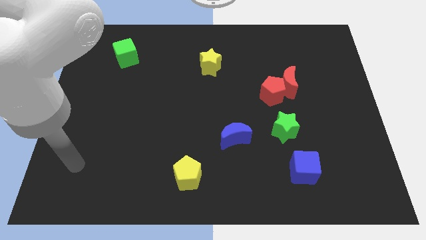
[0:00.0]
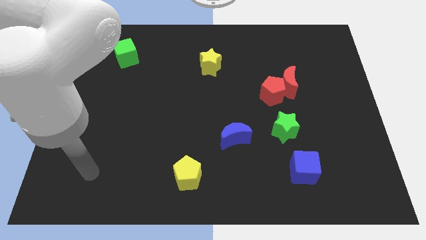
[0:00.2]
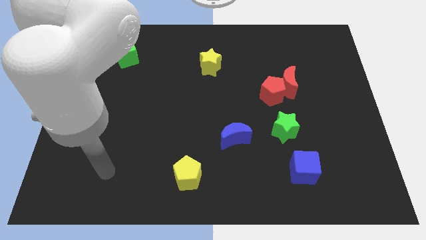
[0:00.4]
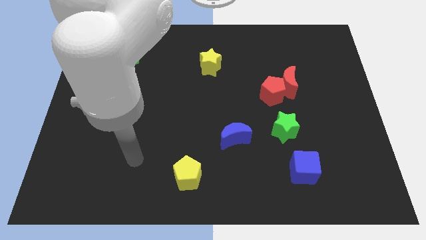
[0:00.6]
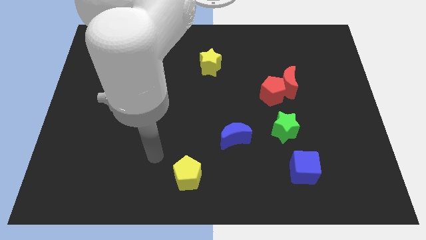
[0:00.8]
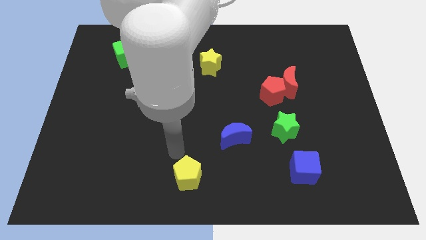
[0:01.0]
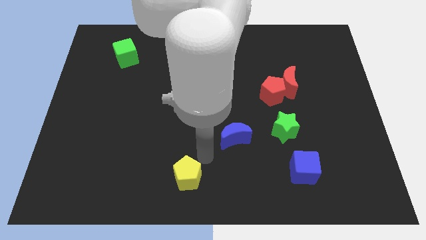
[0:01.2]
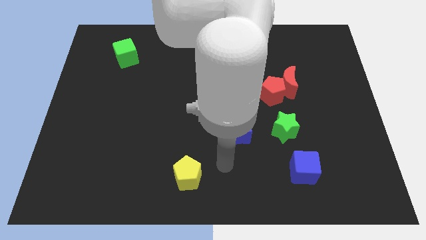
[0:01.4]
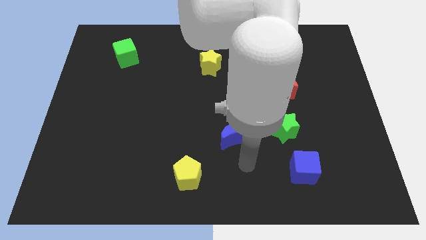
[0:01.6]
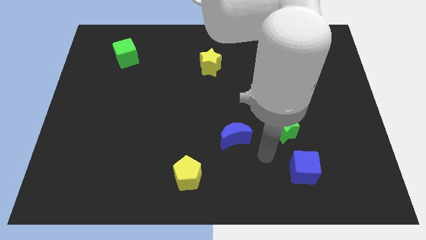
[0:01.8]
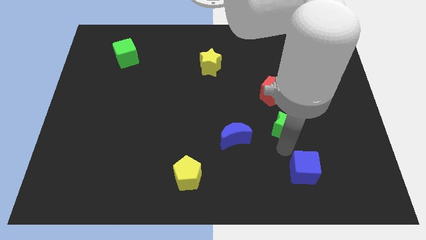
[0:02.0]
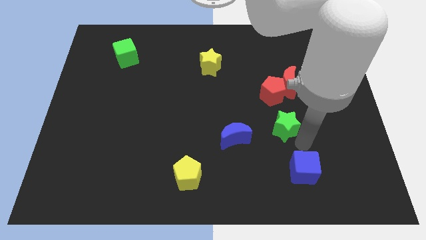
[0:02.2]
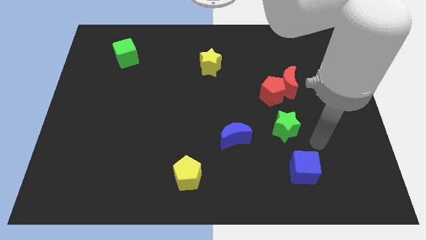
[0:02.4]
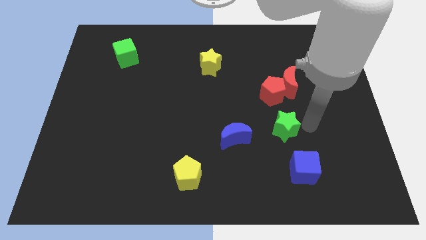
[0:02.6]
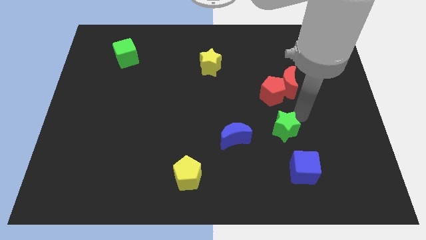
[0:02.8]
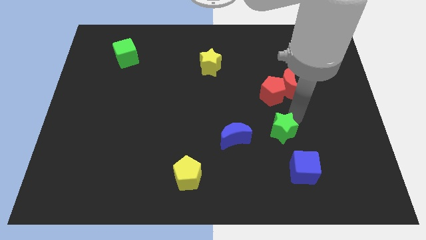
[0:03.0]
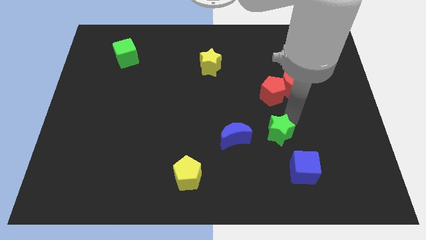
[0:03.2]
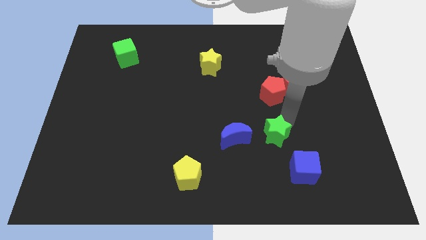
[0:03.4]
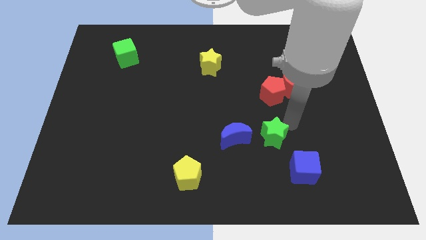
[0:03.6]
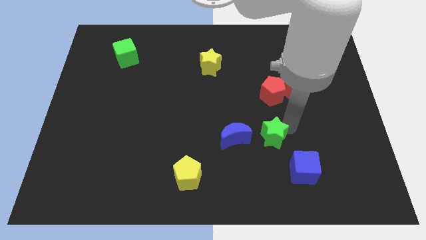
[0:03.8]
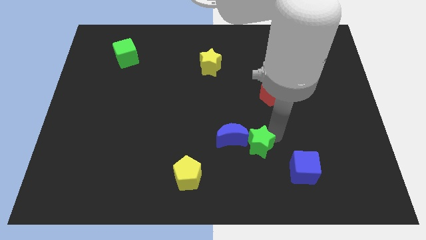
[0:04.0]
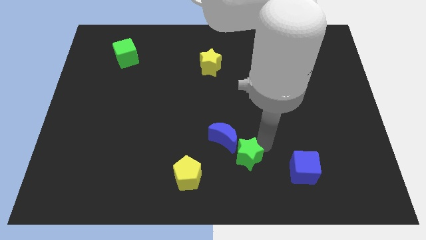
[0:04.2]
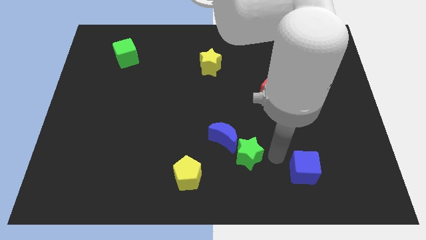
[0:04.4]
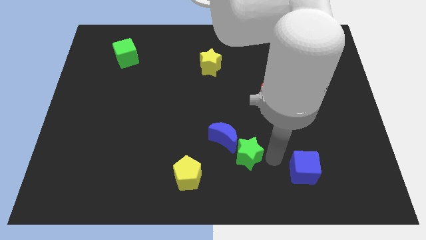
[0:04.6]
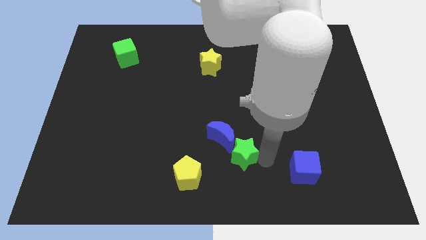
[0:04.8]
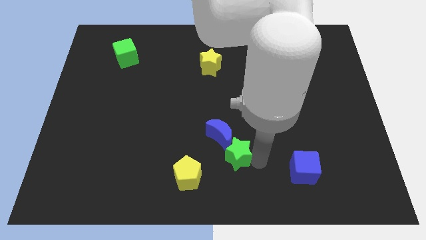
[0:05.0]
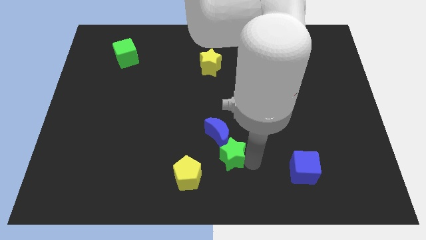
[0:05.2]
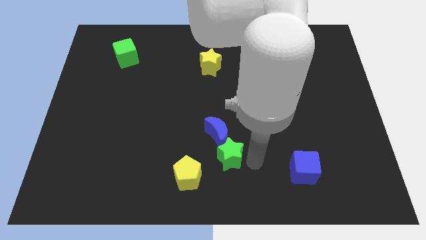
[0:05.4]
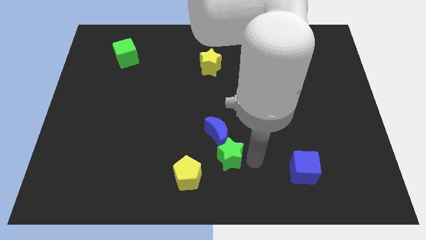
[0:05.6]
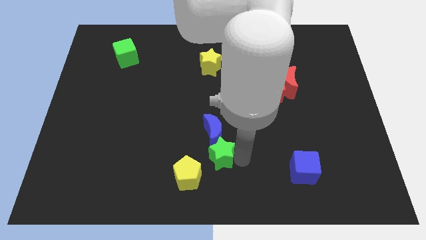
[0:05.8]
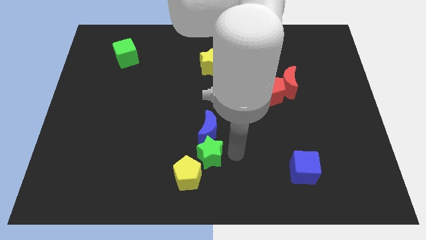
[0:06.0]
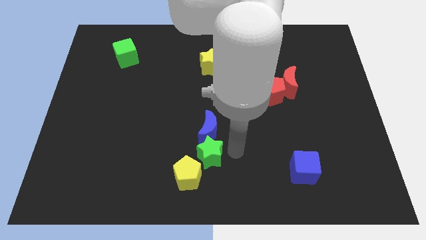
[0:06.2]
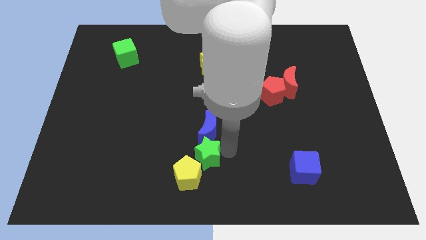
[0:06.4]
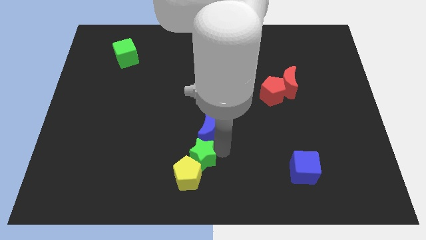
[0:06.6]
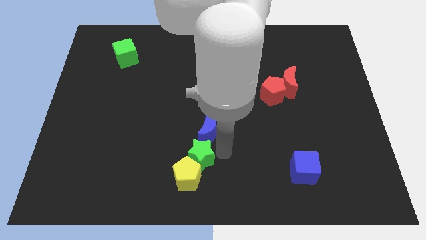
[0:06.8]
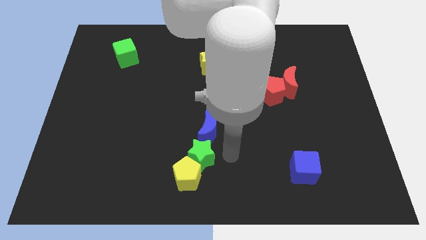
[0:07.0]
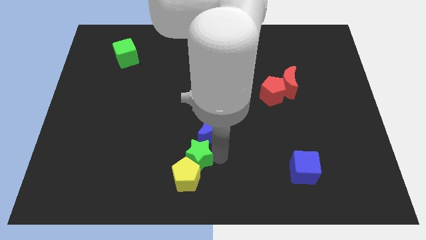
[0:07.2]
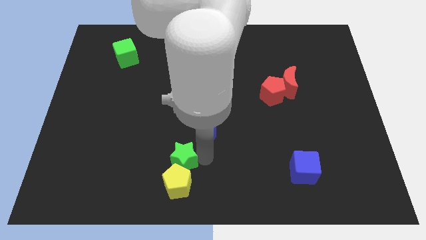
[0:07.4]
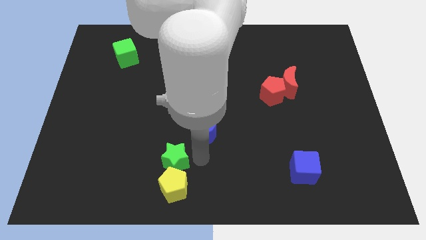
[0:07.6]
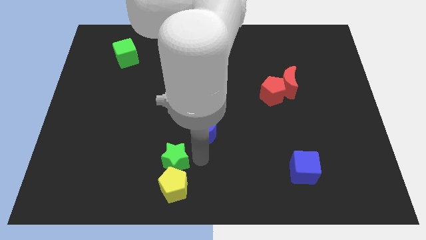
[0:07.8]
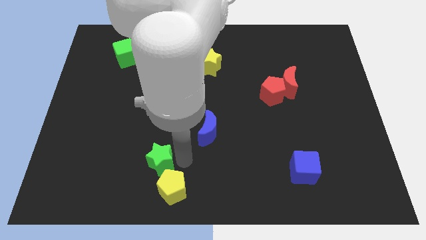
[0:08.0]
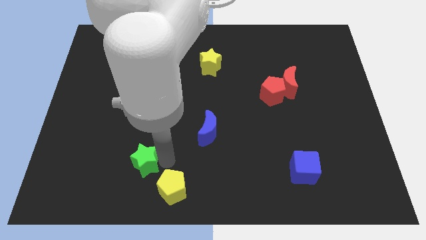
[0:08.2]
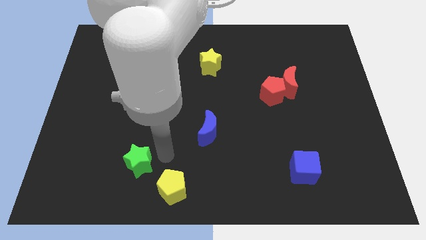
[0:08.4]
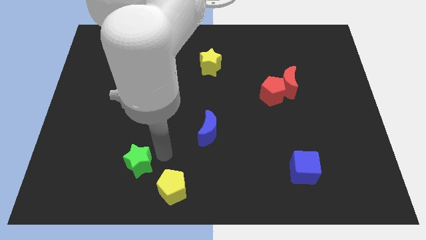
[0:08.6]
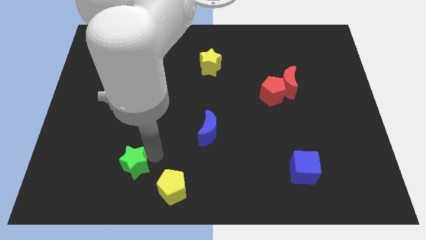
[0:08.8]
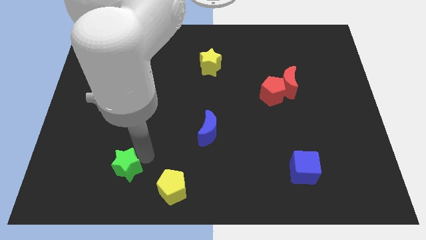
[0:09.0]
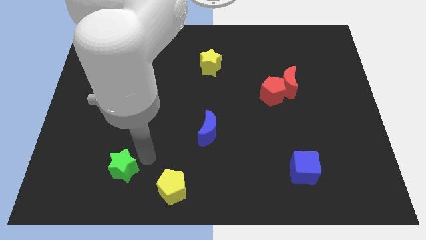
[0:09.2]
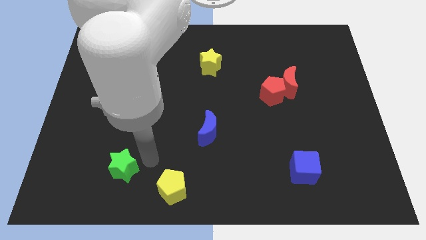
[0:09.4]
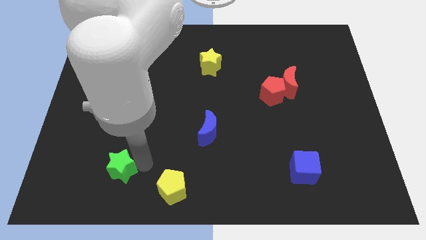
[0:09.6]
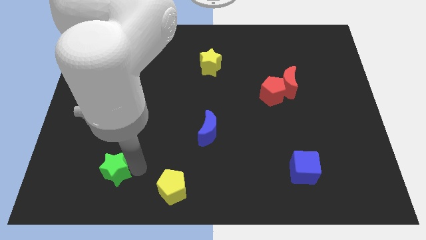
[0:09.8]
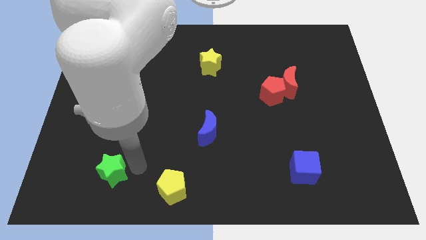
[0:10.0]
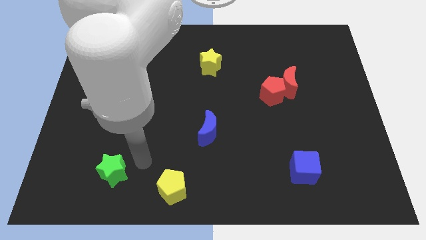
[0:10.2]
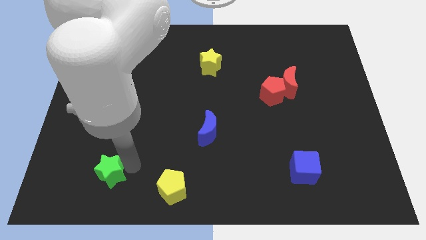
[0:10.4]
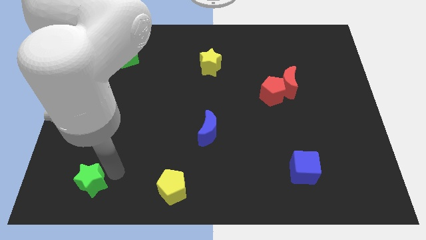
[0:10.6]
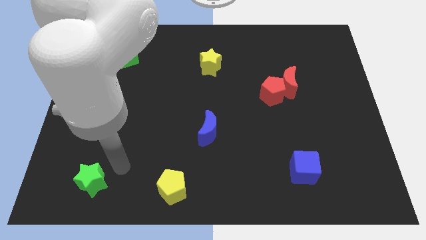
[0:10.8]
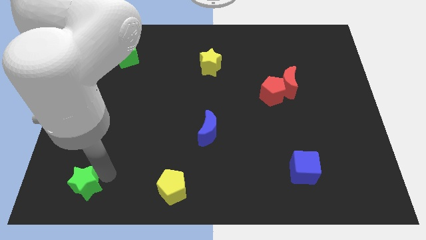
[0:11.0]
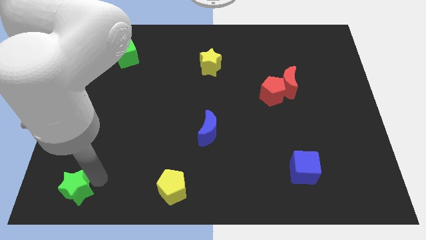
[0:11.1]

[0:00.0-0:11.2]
slide the green star to the bottom left of the board

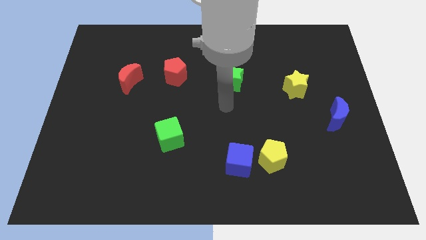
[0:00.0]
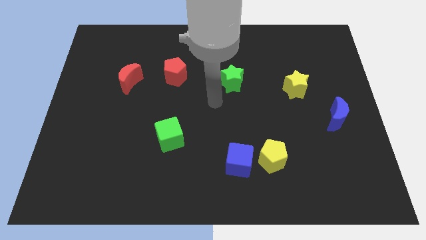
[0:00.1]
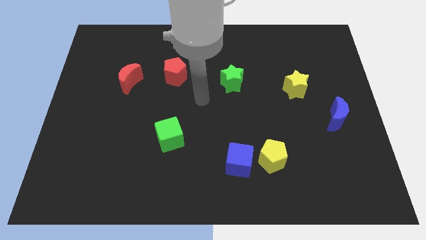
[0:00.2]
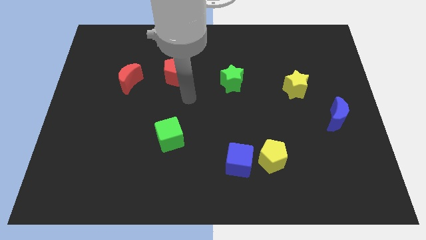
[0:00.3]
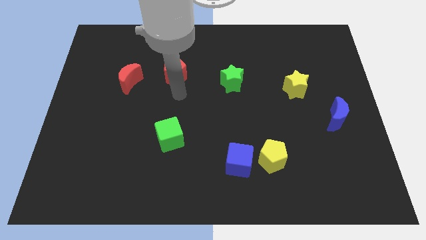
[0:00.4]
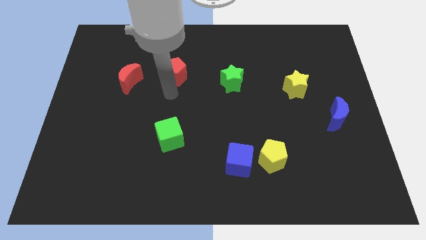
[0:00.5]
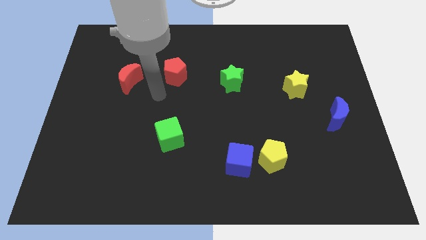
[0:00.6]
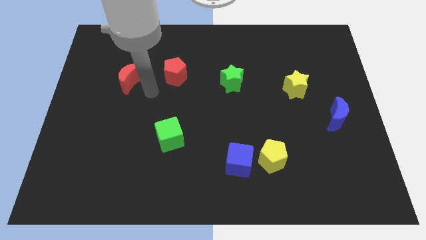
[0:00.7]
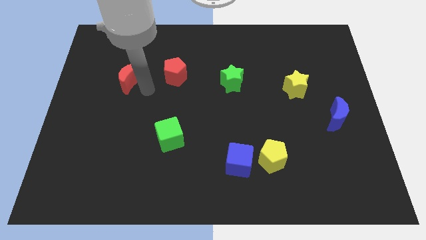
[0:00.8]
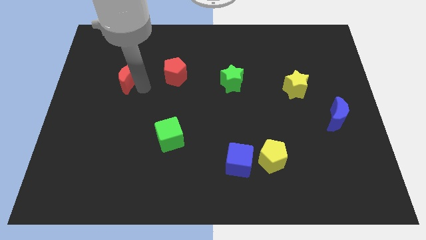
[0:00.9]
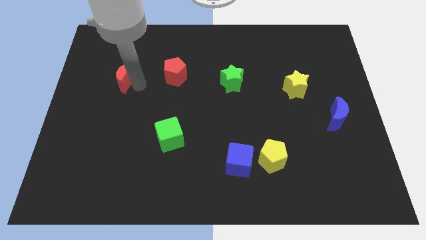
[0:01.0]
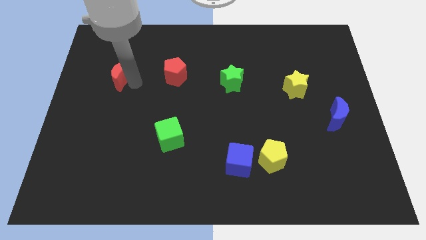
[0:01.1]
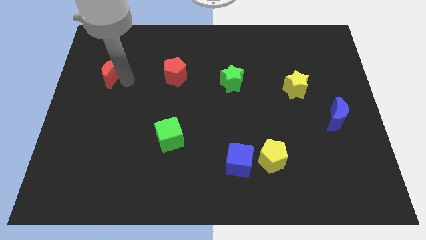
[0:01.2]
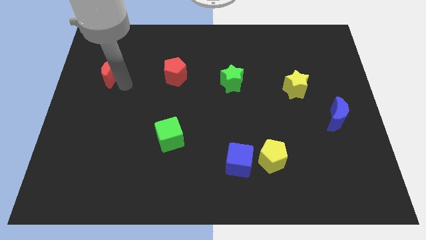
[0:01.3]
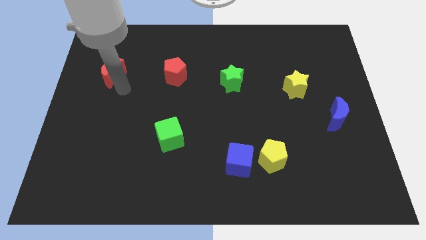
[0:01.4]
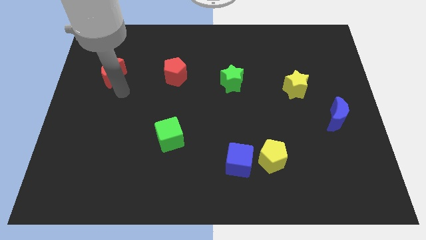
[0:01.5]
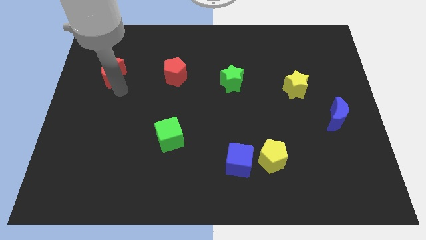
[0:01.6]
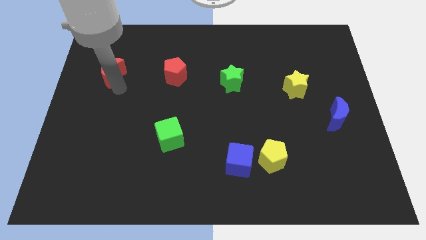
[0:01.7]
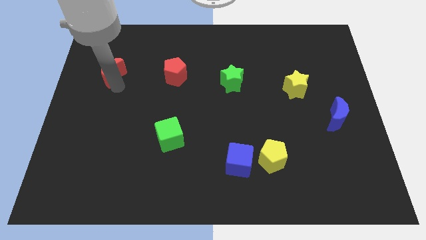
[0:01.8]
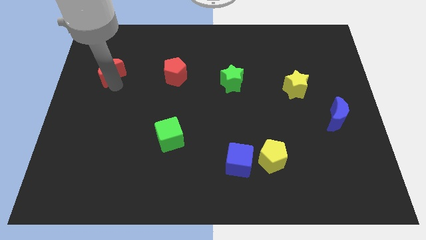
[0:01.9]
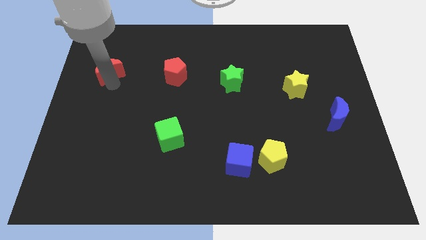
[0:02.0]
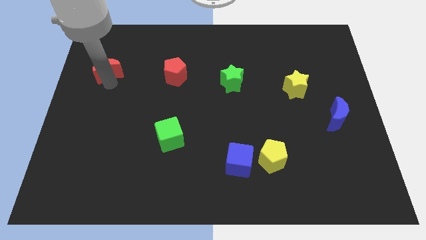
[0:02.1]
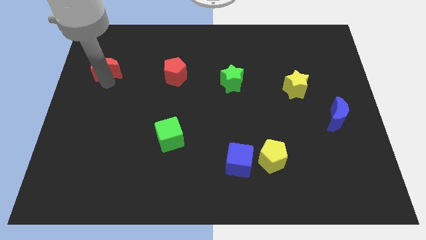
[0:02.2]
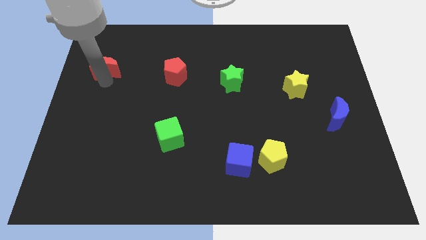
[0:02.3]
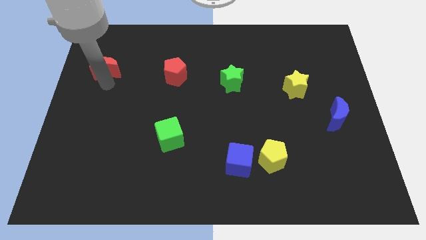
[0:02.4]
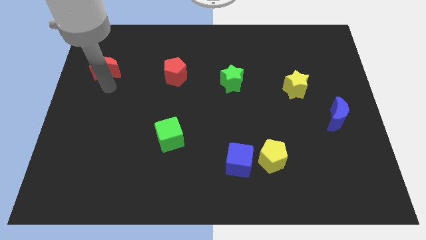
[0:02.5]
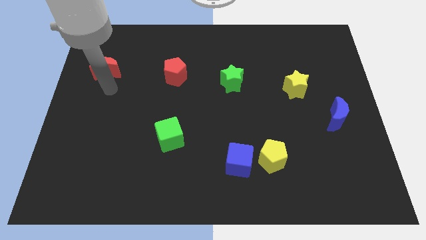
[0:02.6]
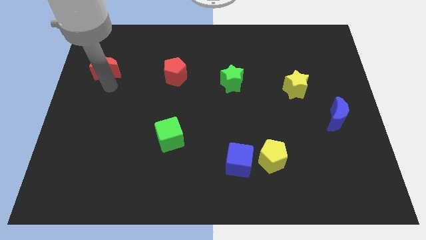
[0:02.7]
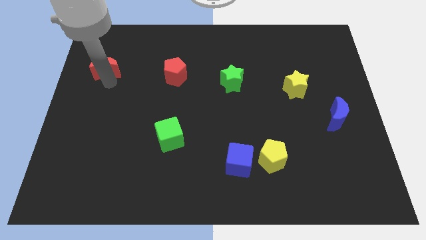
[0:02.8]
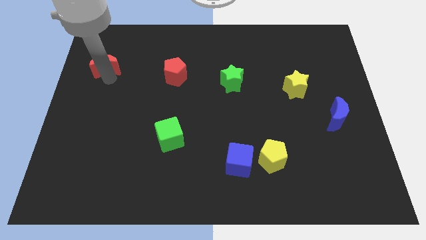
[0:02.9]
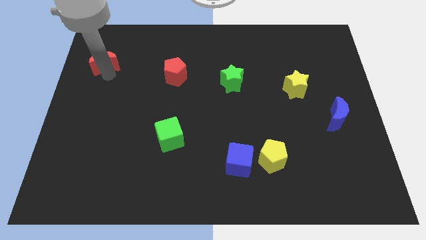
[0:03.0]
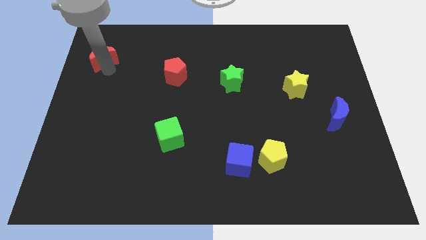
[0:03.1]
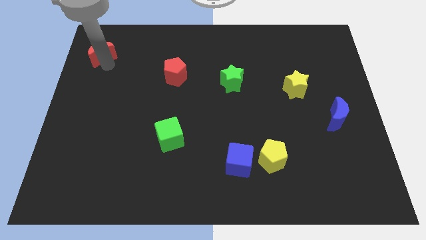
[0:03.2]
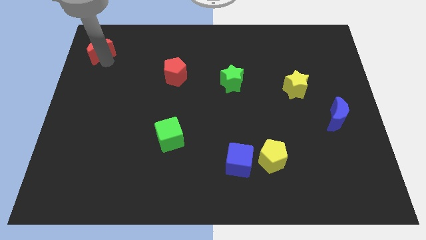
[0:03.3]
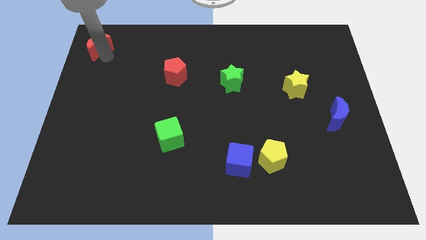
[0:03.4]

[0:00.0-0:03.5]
slide the red moon to the top left of the board
